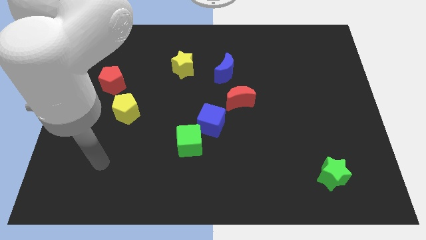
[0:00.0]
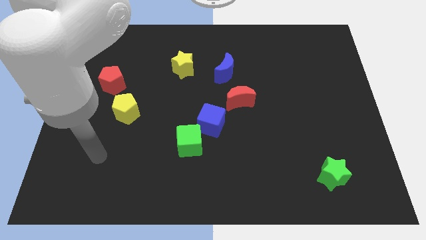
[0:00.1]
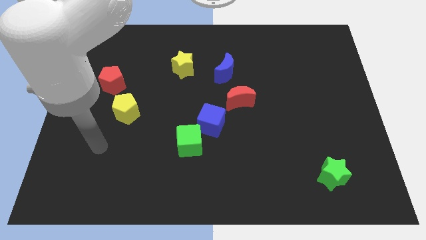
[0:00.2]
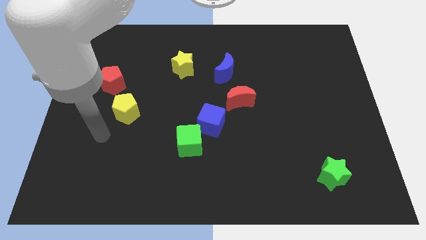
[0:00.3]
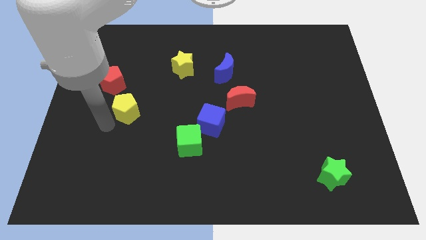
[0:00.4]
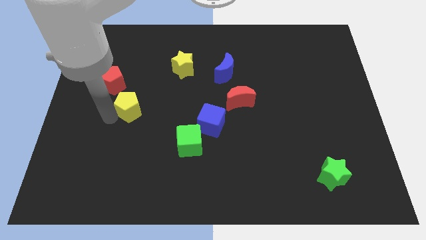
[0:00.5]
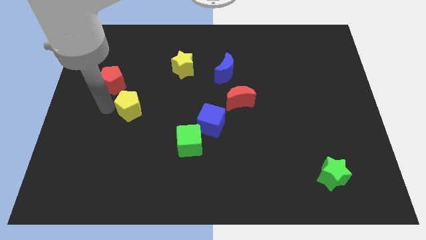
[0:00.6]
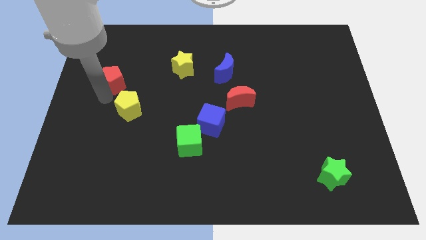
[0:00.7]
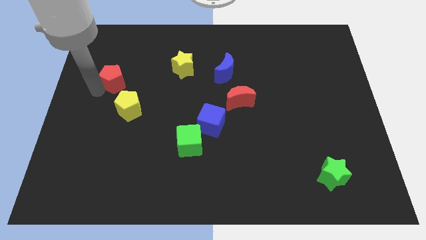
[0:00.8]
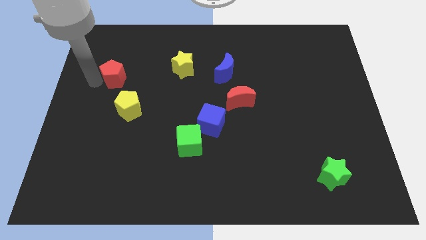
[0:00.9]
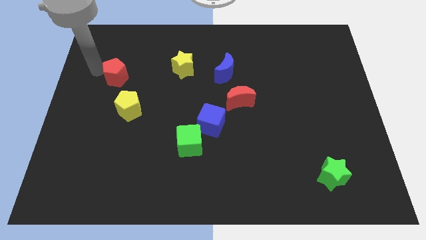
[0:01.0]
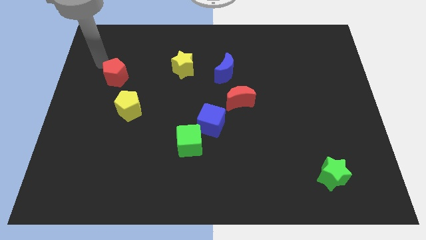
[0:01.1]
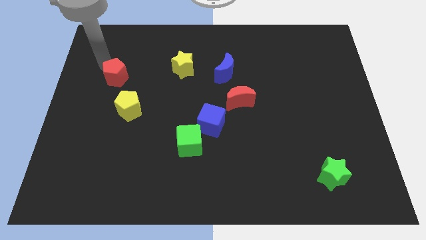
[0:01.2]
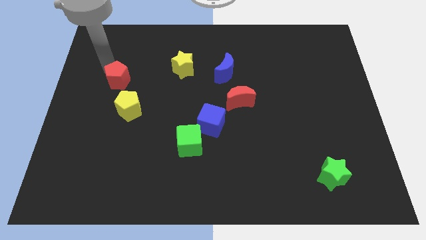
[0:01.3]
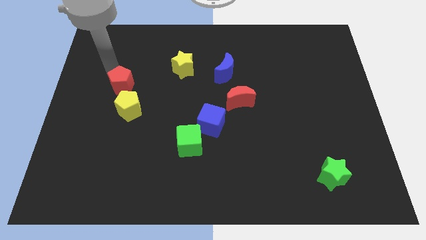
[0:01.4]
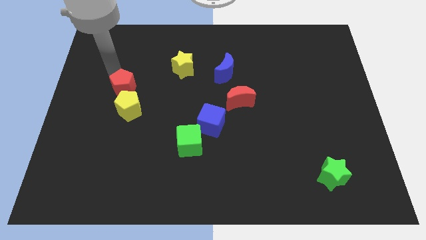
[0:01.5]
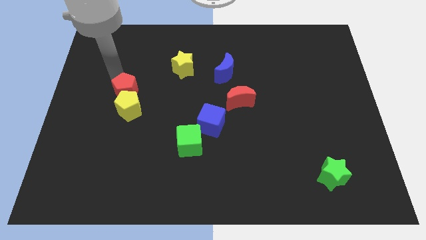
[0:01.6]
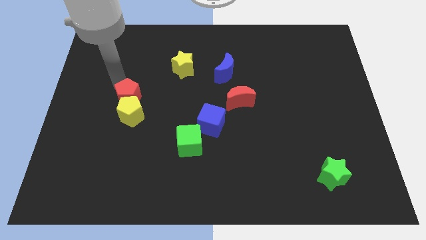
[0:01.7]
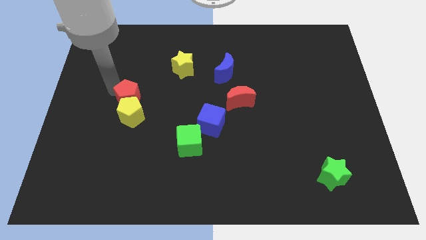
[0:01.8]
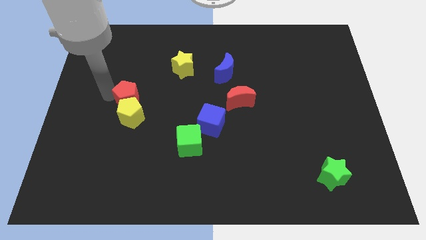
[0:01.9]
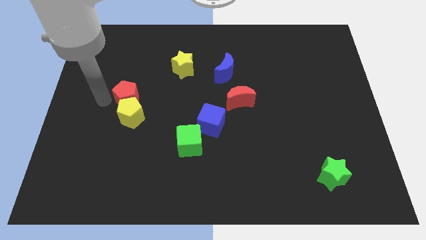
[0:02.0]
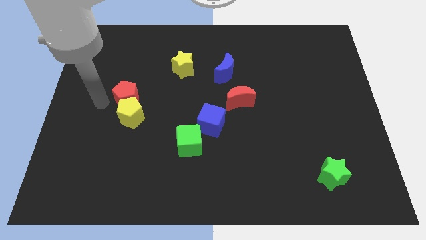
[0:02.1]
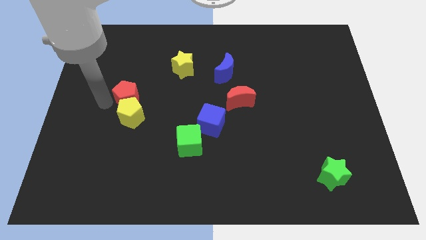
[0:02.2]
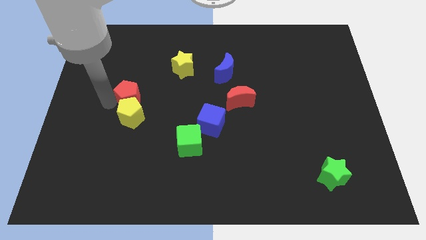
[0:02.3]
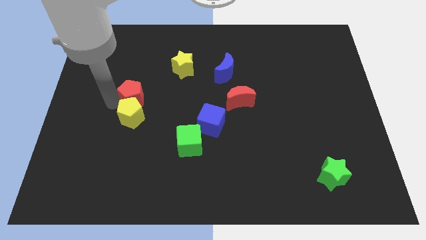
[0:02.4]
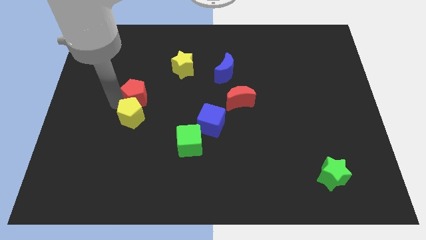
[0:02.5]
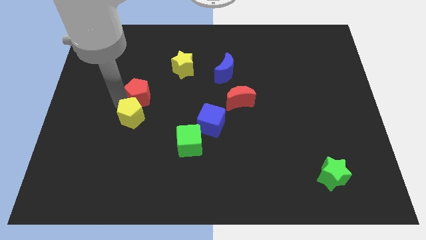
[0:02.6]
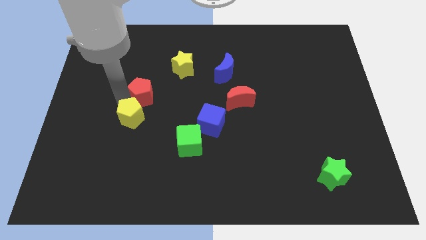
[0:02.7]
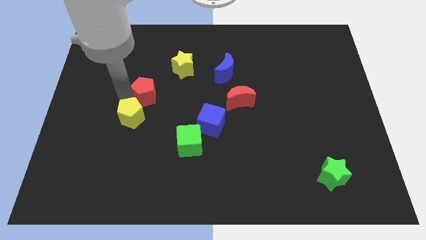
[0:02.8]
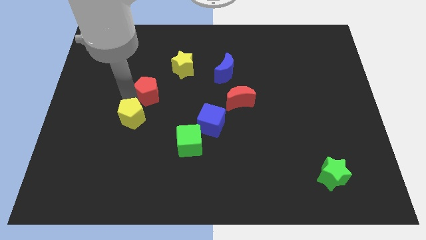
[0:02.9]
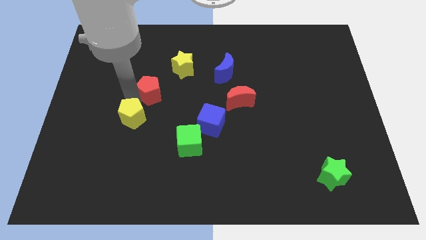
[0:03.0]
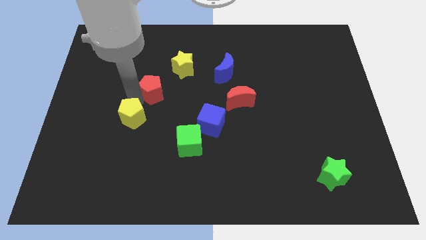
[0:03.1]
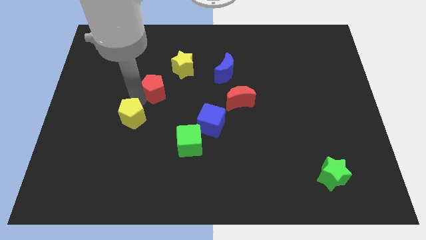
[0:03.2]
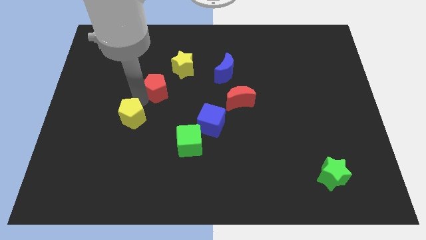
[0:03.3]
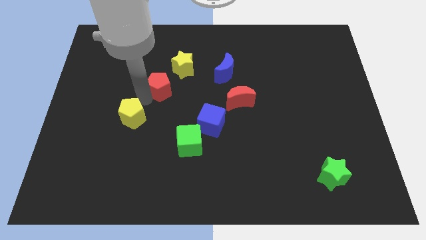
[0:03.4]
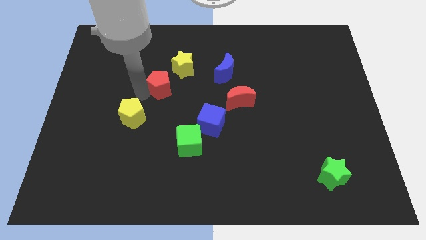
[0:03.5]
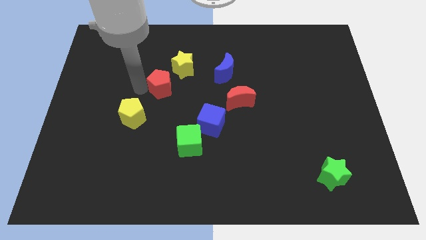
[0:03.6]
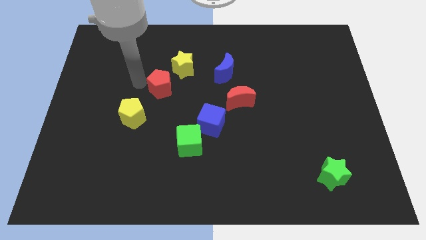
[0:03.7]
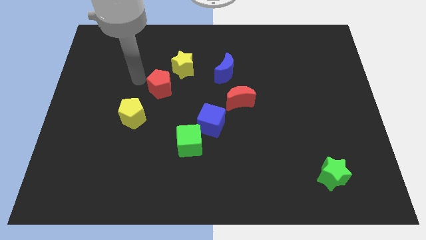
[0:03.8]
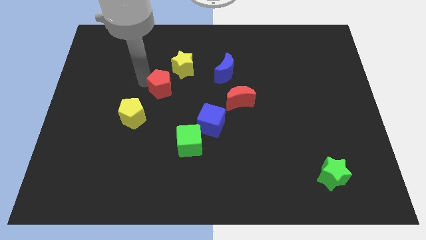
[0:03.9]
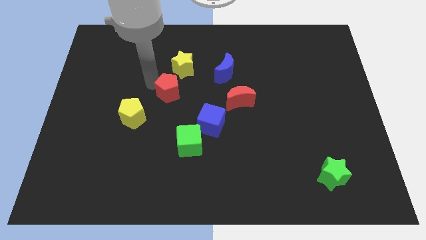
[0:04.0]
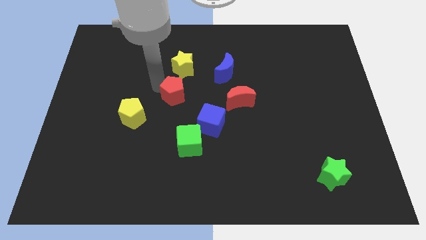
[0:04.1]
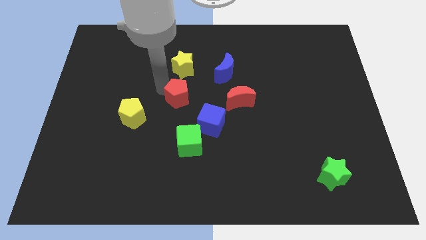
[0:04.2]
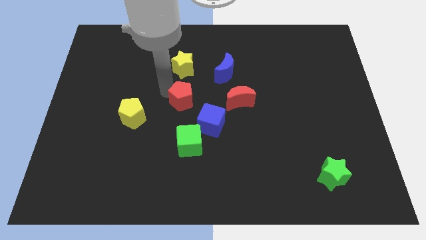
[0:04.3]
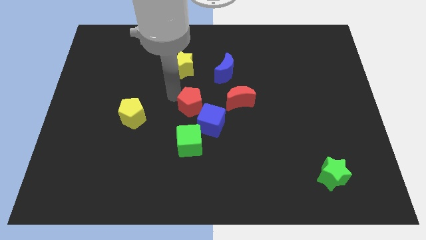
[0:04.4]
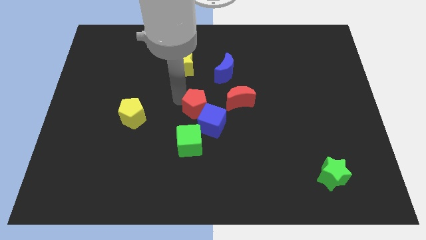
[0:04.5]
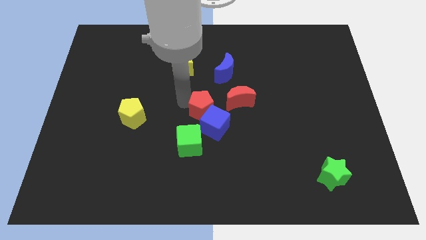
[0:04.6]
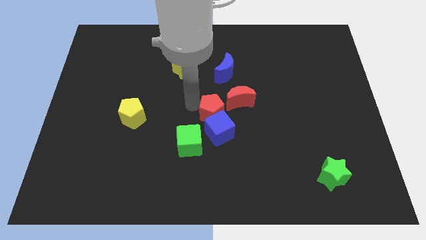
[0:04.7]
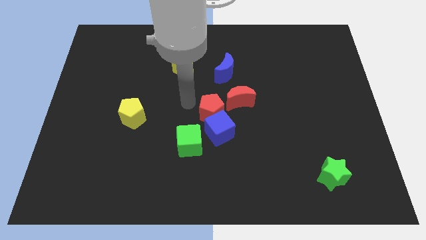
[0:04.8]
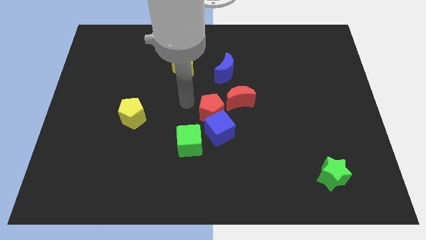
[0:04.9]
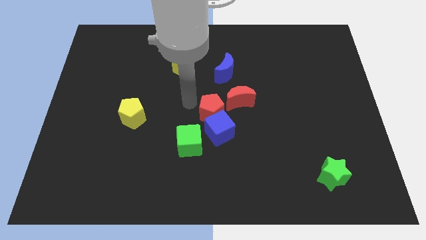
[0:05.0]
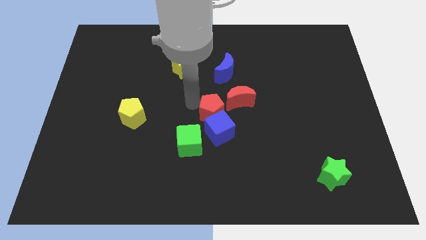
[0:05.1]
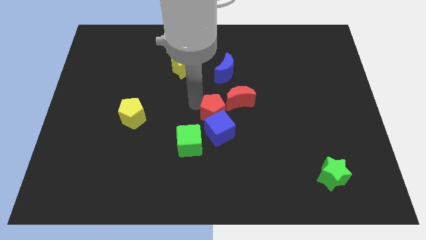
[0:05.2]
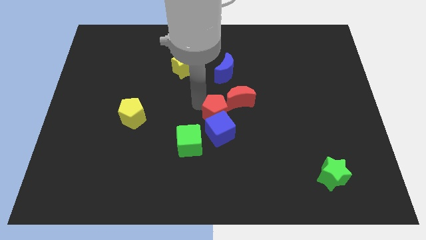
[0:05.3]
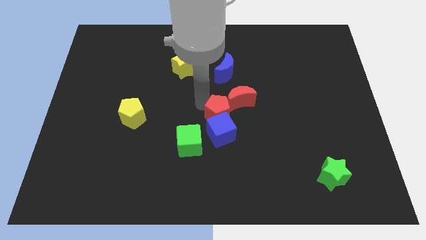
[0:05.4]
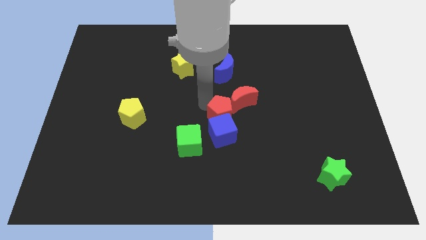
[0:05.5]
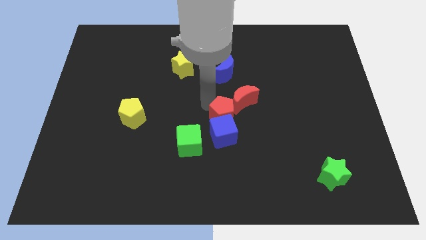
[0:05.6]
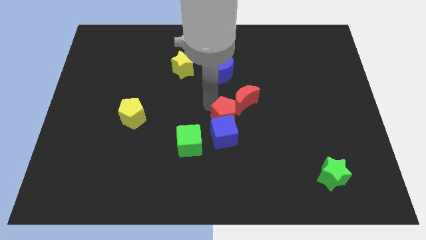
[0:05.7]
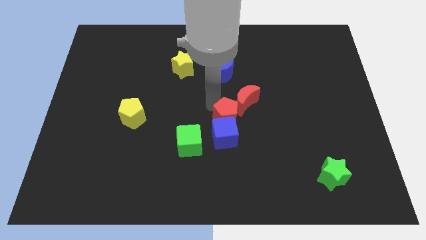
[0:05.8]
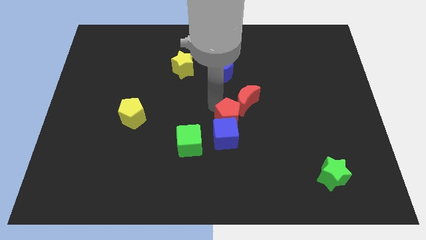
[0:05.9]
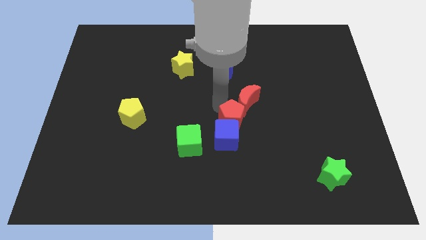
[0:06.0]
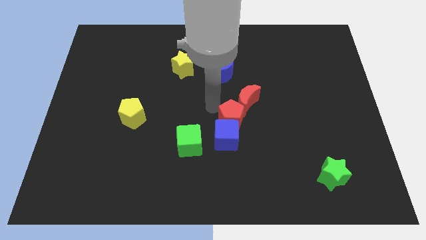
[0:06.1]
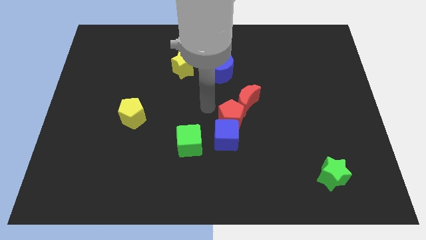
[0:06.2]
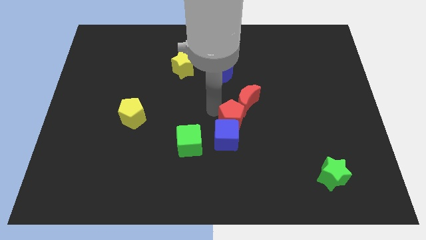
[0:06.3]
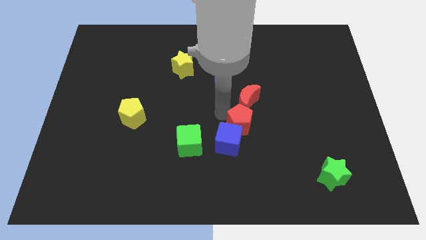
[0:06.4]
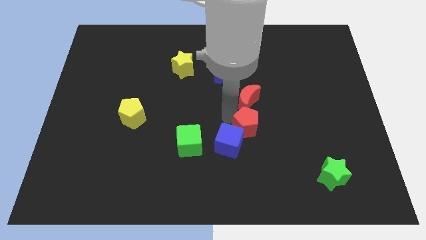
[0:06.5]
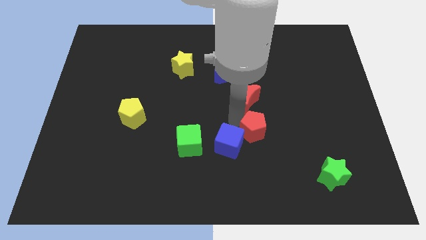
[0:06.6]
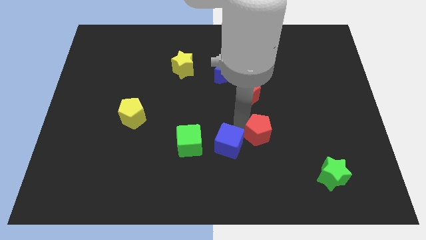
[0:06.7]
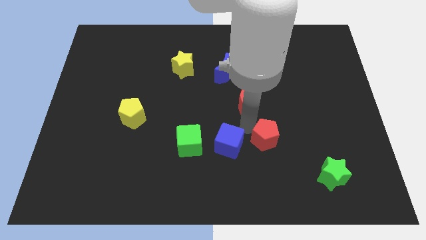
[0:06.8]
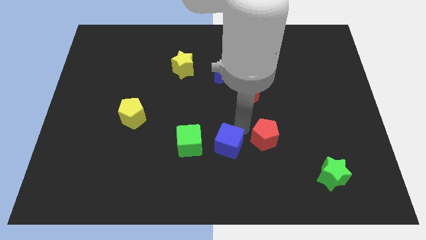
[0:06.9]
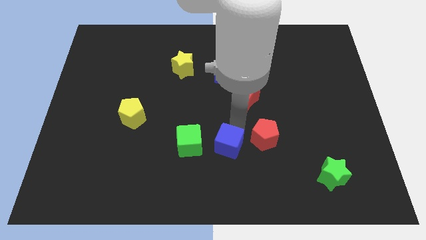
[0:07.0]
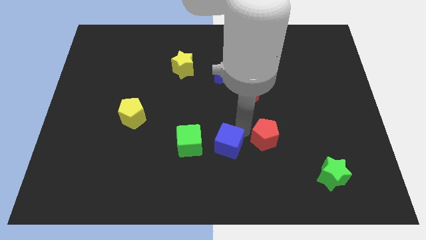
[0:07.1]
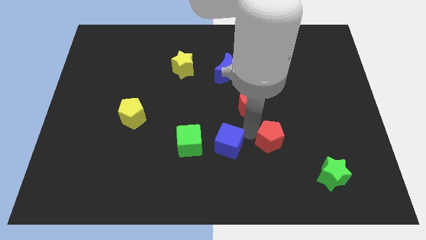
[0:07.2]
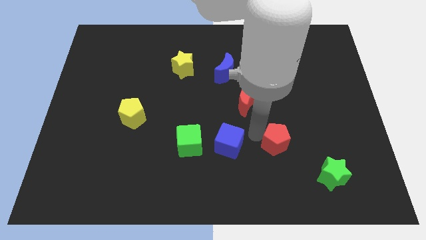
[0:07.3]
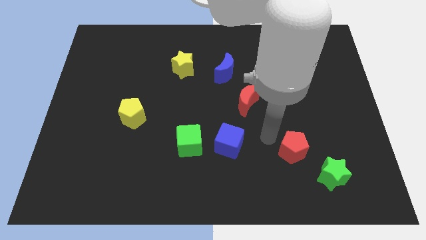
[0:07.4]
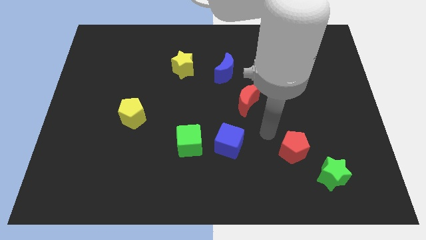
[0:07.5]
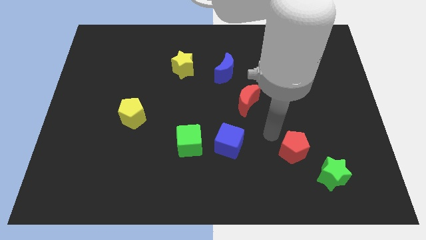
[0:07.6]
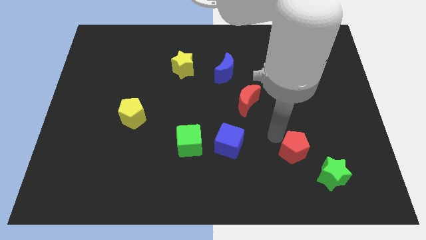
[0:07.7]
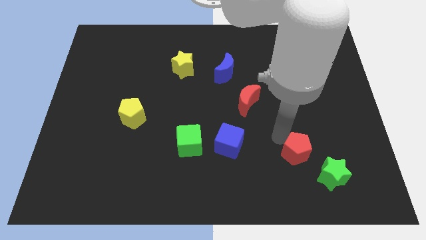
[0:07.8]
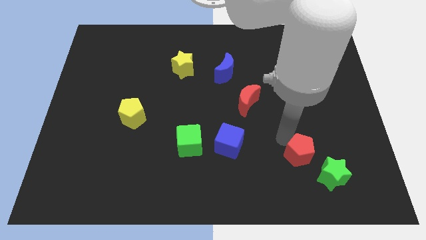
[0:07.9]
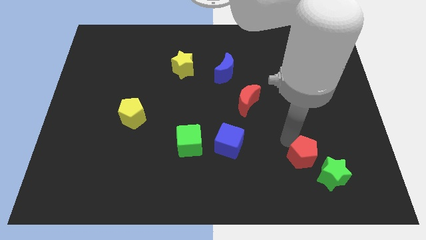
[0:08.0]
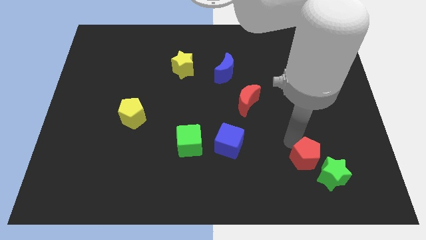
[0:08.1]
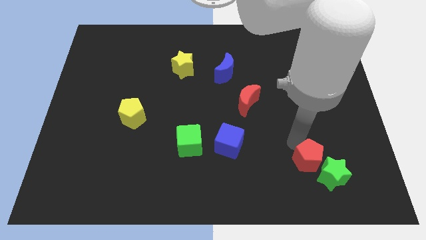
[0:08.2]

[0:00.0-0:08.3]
move the red pentagon next to the green star
